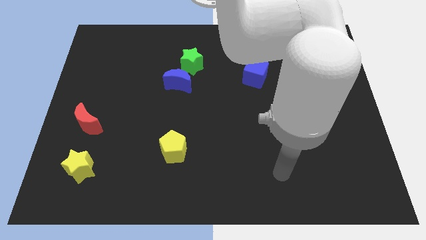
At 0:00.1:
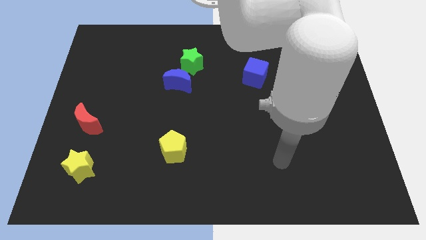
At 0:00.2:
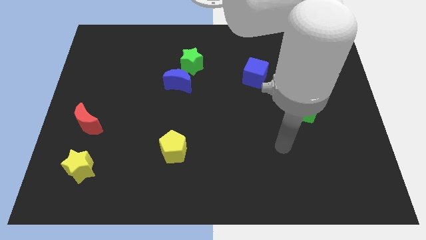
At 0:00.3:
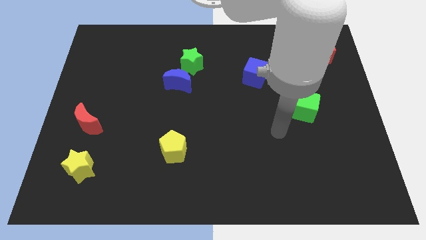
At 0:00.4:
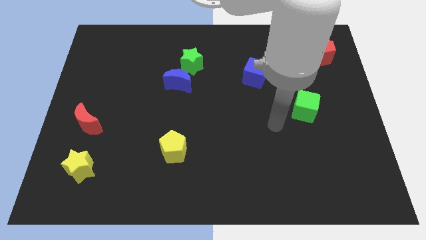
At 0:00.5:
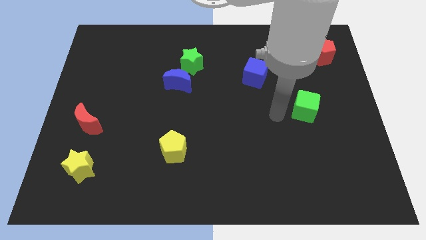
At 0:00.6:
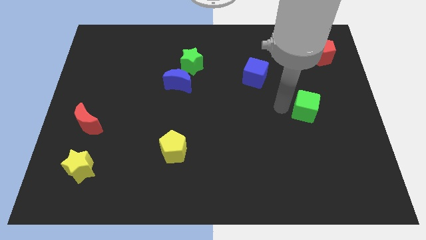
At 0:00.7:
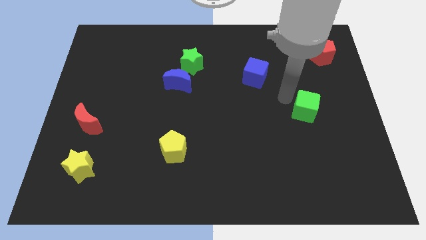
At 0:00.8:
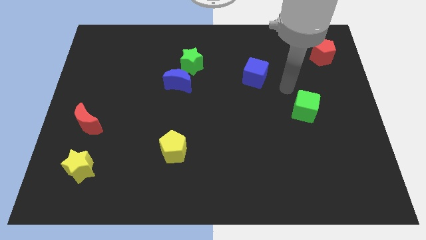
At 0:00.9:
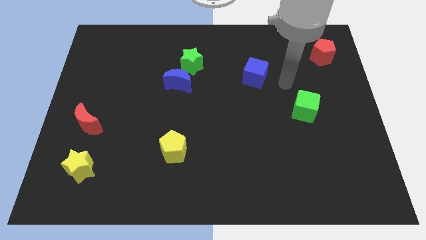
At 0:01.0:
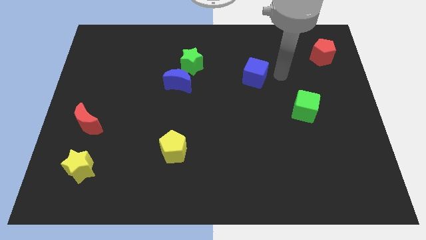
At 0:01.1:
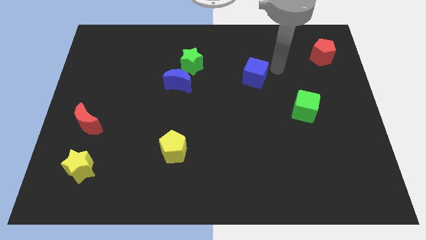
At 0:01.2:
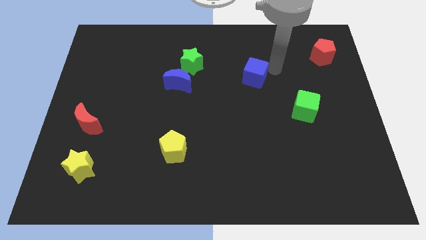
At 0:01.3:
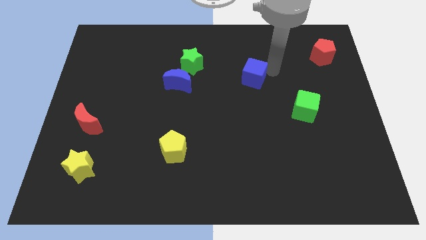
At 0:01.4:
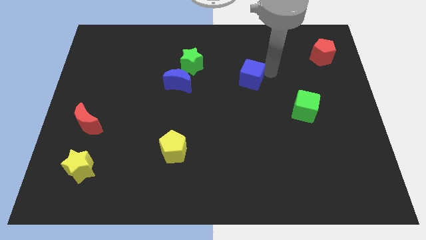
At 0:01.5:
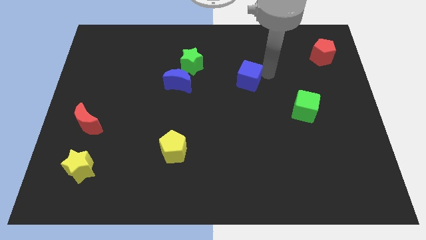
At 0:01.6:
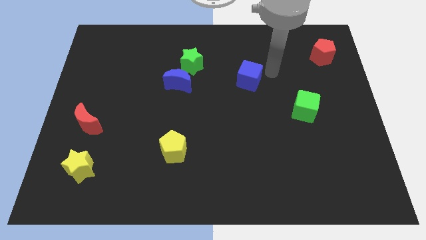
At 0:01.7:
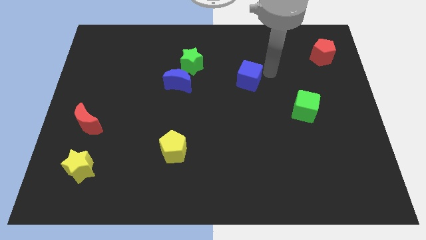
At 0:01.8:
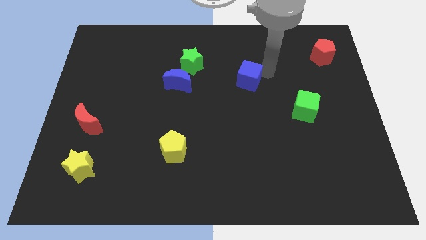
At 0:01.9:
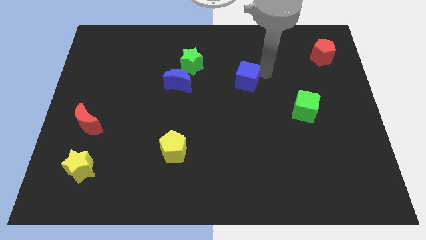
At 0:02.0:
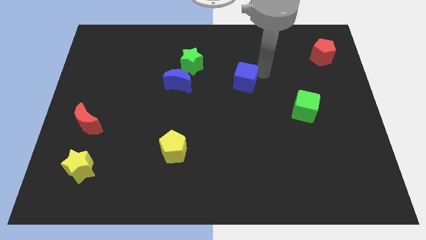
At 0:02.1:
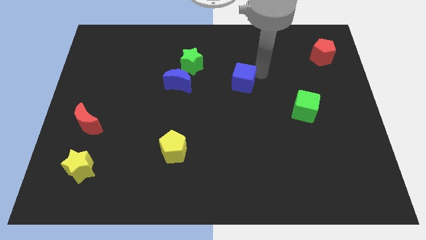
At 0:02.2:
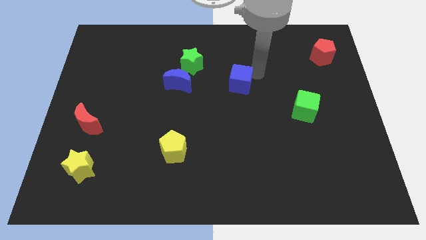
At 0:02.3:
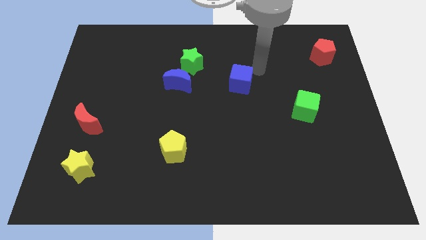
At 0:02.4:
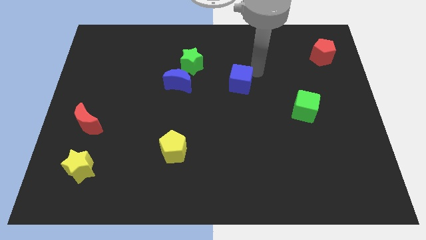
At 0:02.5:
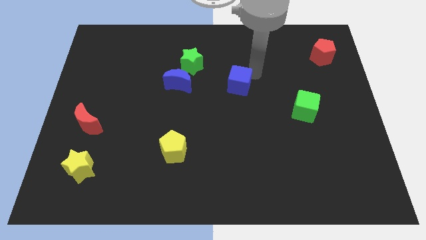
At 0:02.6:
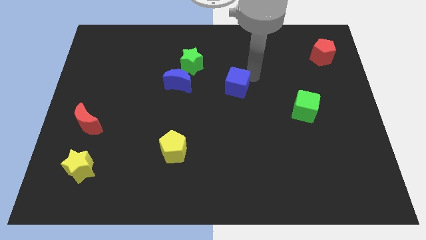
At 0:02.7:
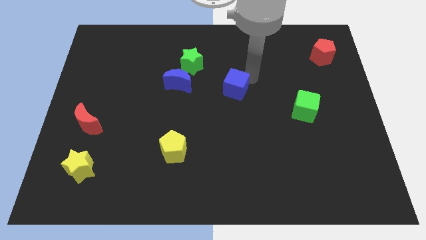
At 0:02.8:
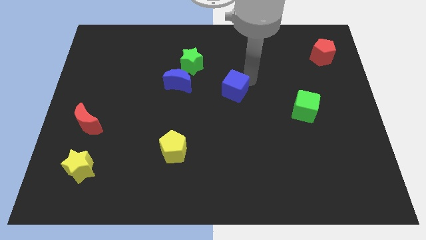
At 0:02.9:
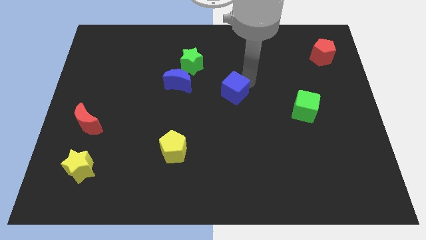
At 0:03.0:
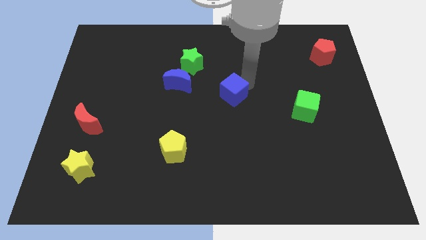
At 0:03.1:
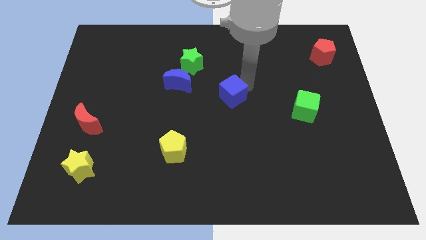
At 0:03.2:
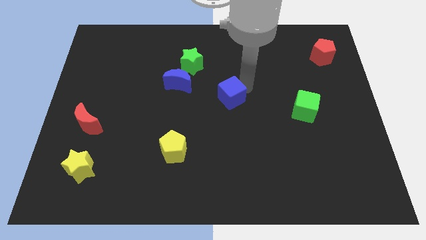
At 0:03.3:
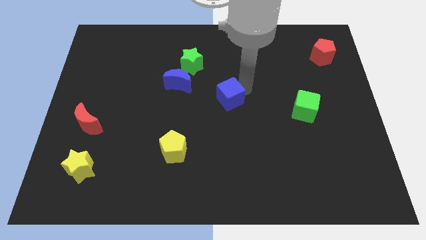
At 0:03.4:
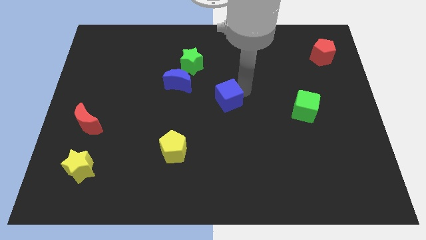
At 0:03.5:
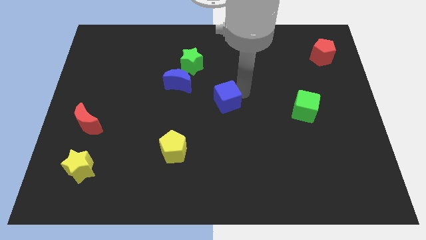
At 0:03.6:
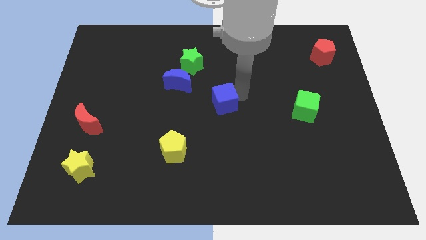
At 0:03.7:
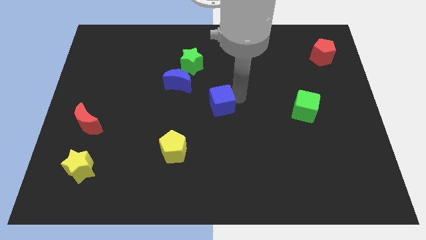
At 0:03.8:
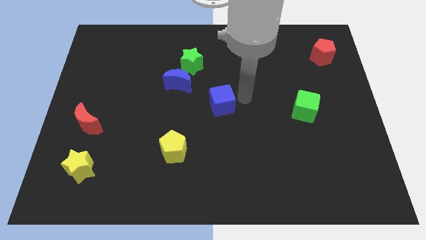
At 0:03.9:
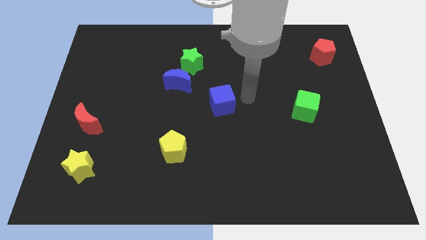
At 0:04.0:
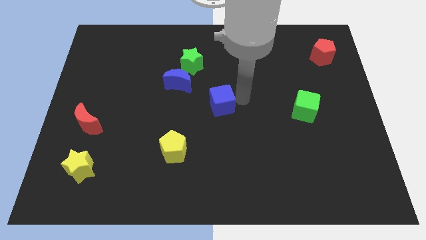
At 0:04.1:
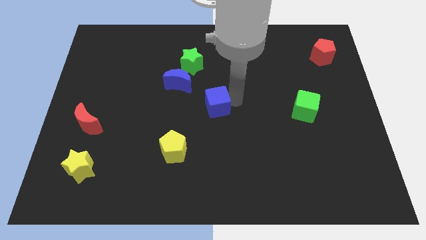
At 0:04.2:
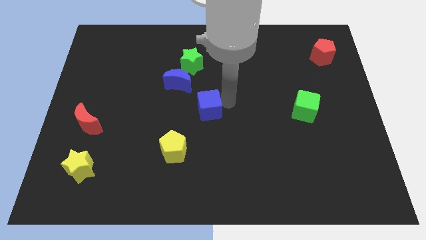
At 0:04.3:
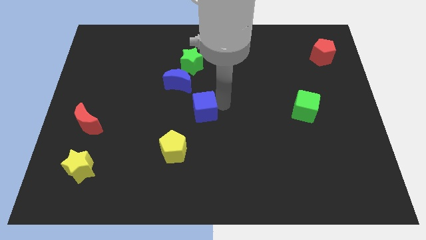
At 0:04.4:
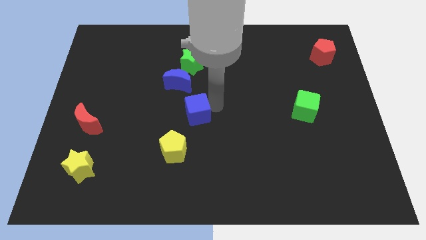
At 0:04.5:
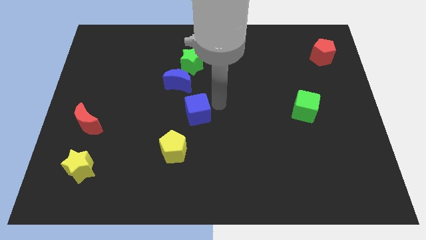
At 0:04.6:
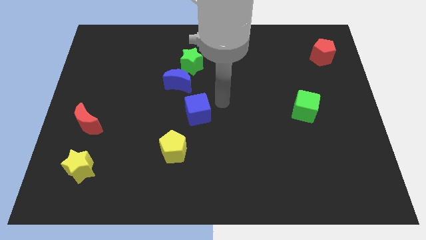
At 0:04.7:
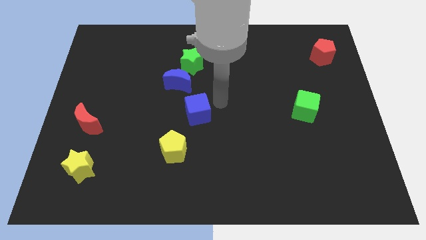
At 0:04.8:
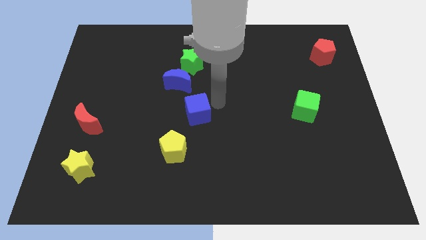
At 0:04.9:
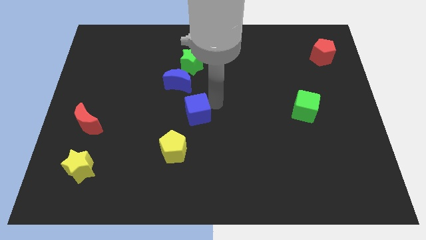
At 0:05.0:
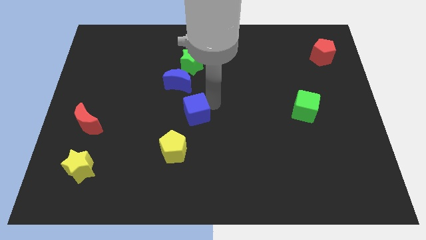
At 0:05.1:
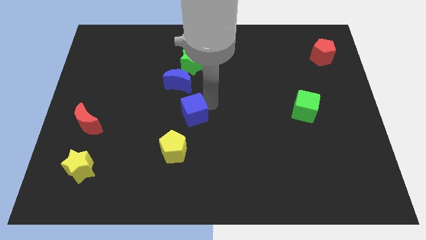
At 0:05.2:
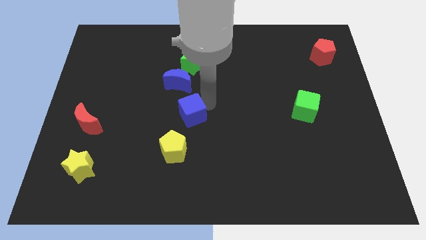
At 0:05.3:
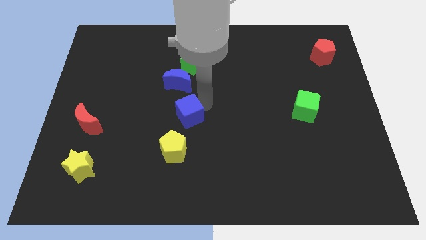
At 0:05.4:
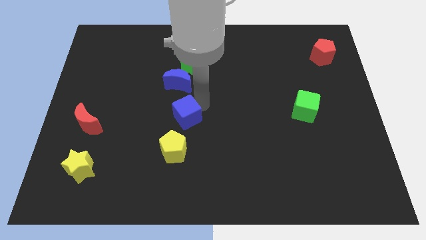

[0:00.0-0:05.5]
push the blue cube downwards and left diagonally

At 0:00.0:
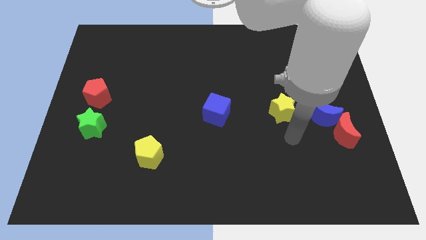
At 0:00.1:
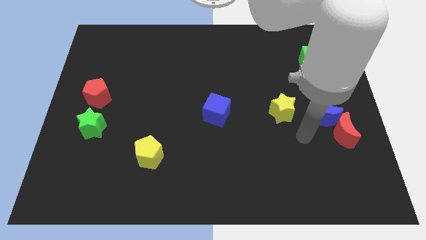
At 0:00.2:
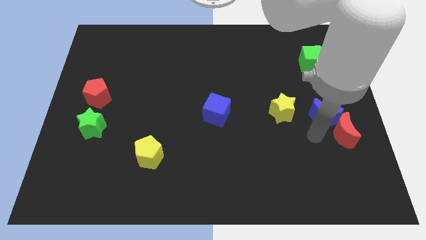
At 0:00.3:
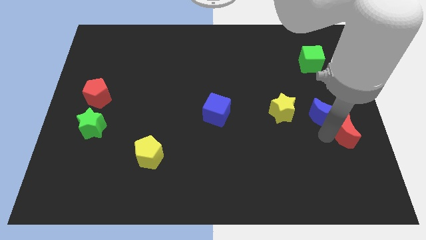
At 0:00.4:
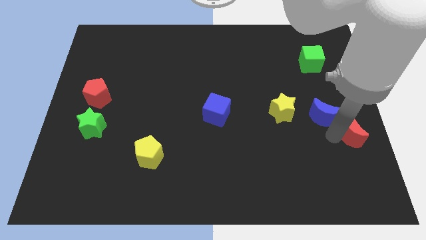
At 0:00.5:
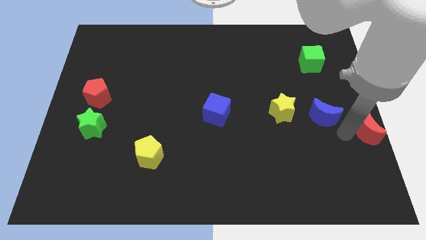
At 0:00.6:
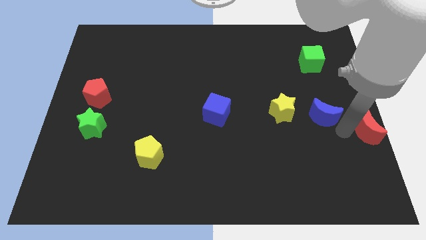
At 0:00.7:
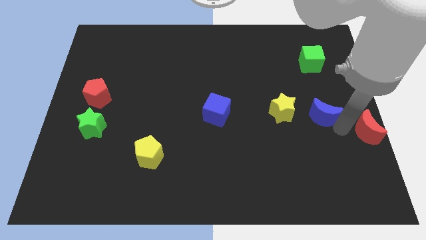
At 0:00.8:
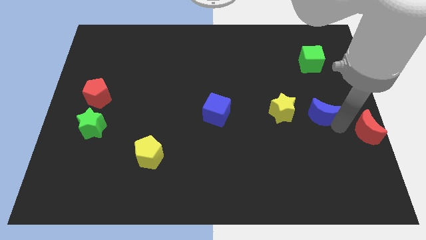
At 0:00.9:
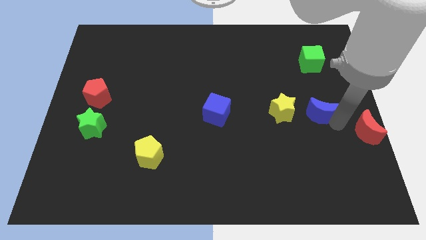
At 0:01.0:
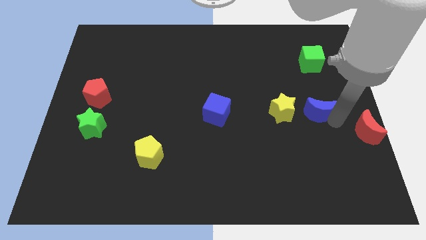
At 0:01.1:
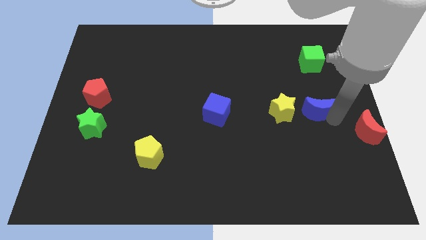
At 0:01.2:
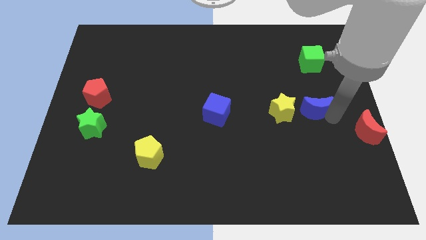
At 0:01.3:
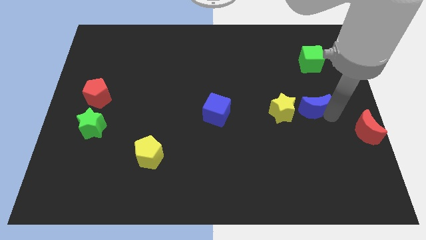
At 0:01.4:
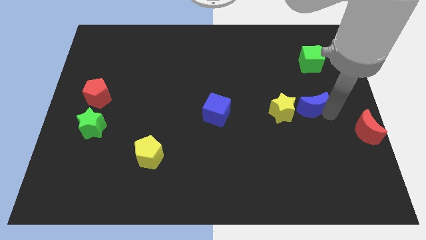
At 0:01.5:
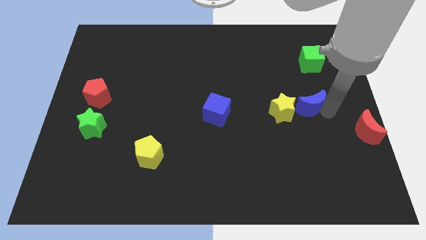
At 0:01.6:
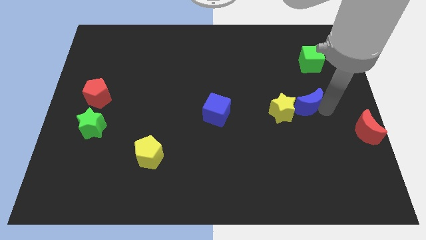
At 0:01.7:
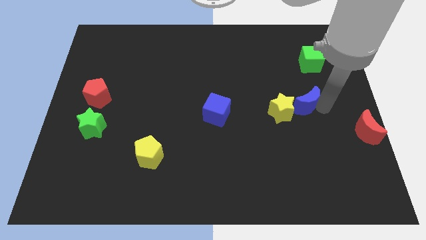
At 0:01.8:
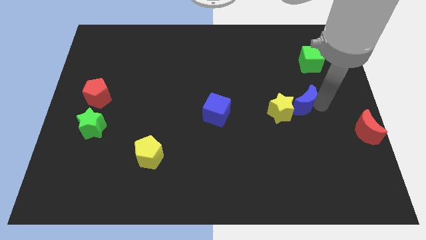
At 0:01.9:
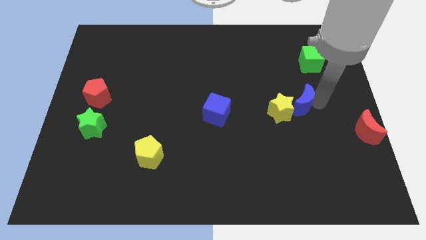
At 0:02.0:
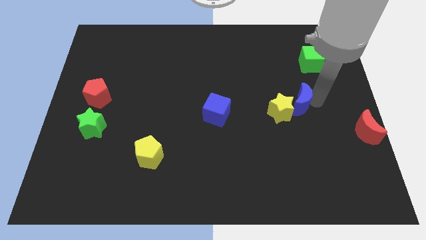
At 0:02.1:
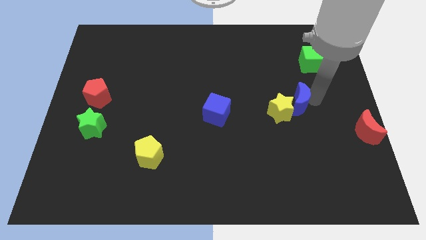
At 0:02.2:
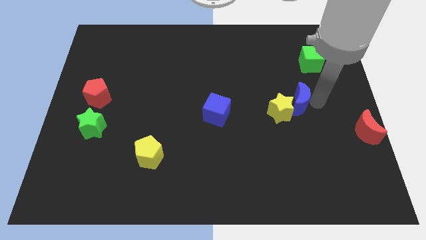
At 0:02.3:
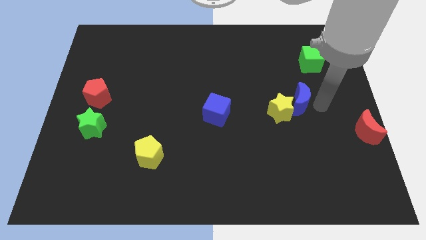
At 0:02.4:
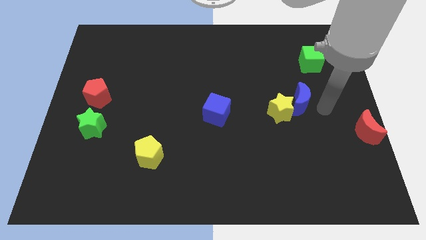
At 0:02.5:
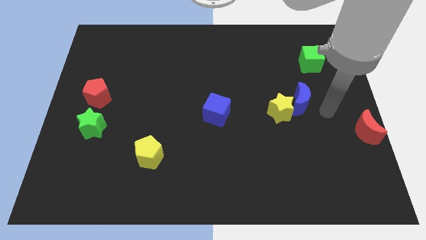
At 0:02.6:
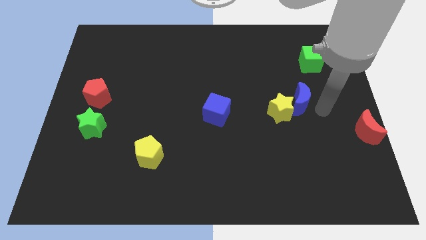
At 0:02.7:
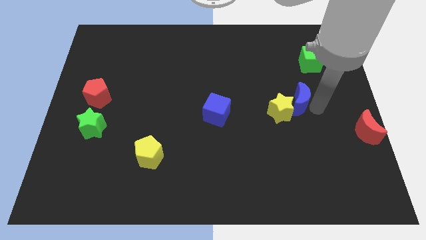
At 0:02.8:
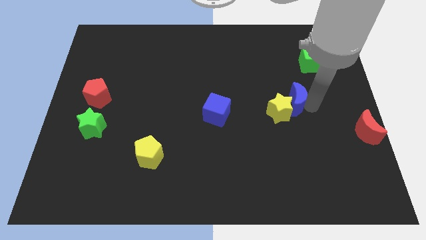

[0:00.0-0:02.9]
push the blue moon slightly upwards and left diagonally
